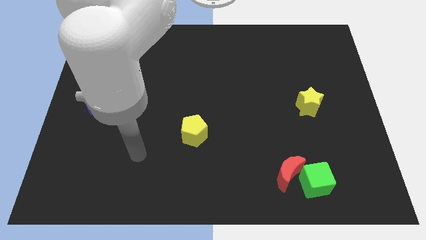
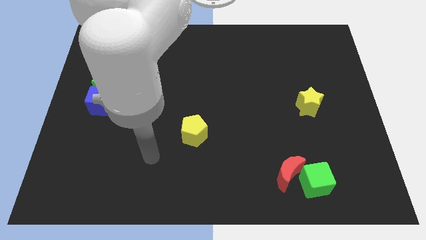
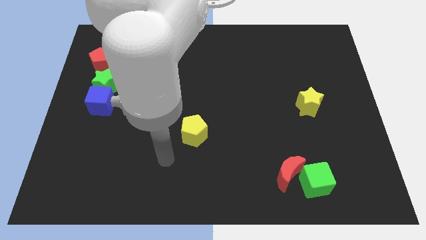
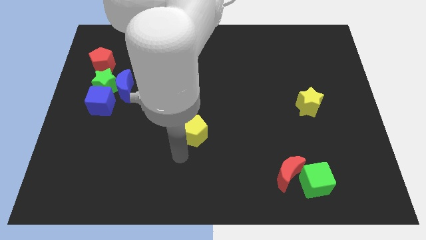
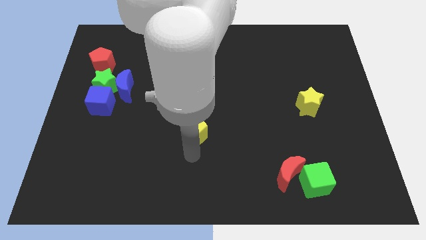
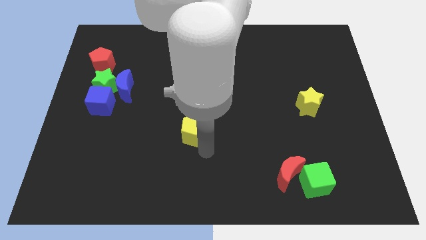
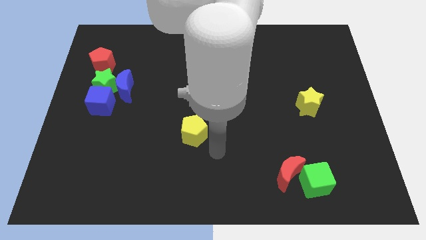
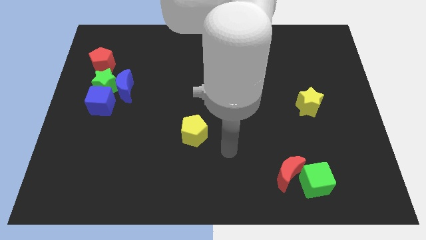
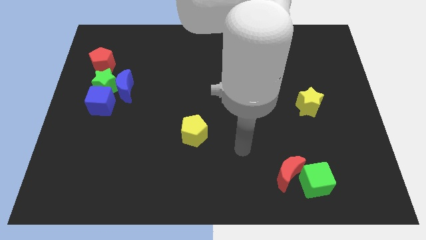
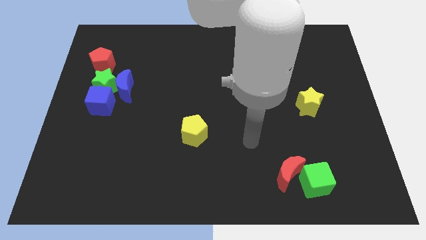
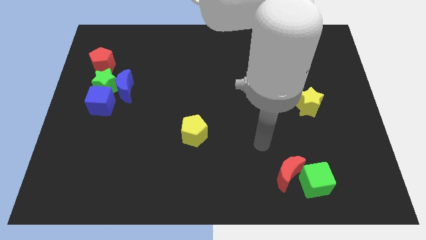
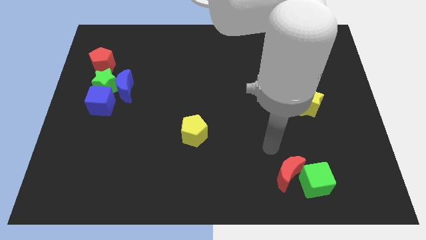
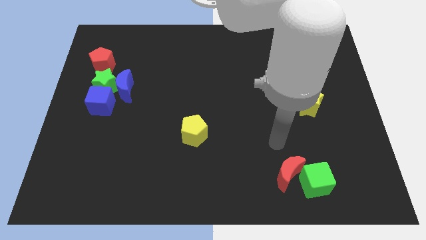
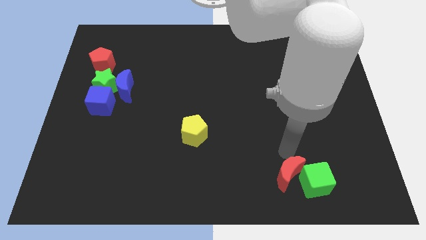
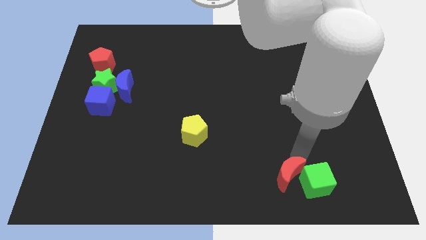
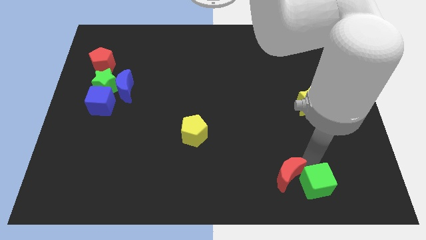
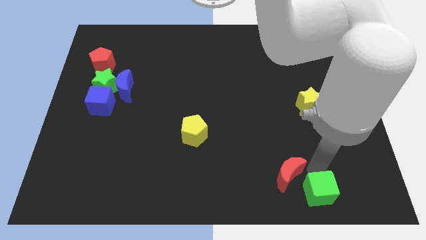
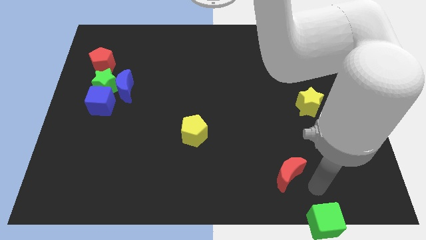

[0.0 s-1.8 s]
move the red moon away from the green cube

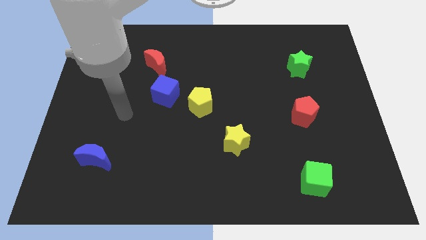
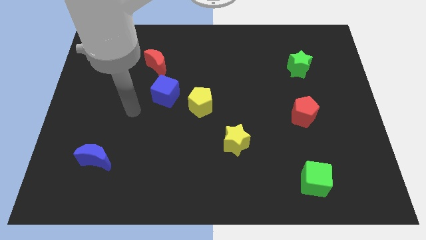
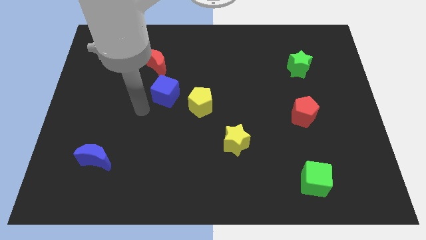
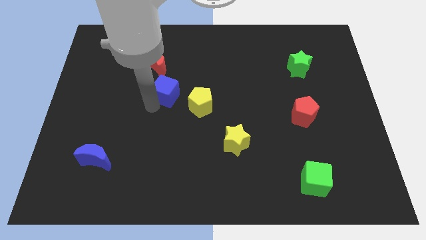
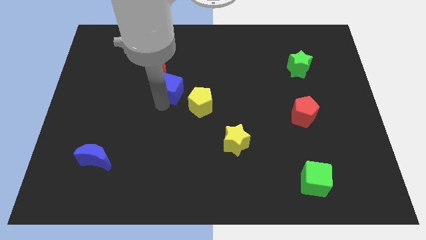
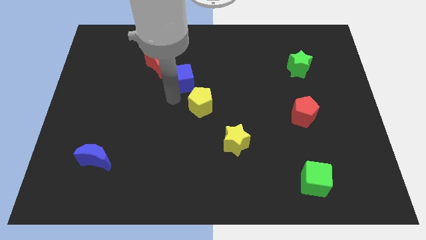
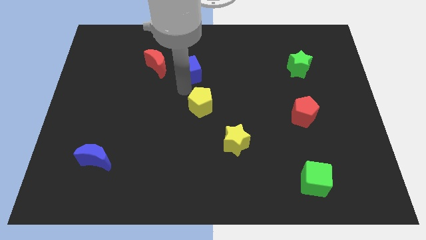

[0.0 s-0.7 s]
pull the yellow pentagon apart from the blue cube

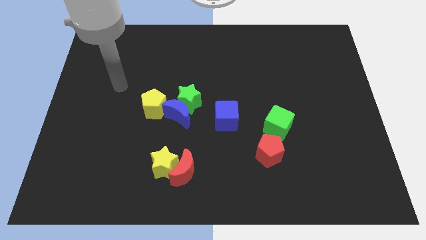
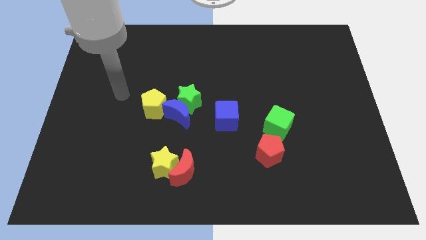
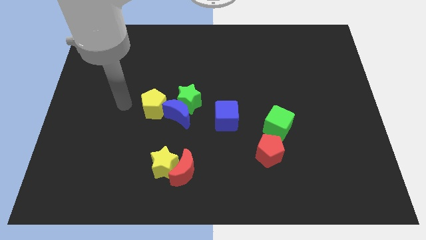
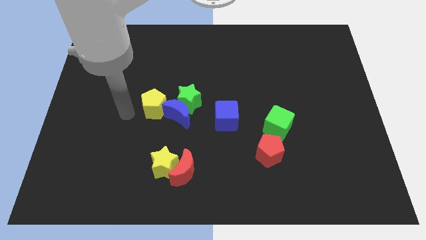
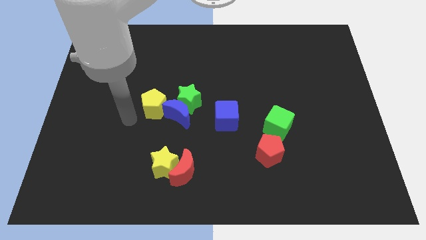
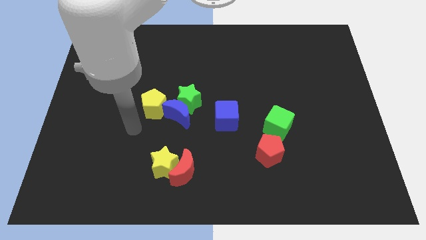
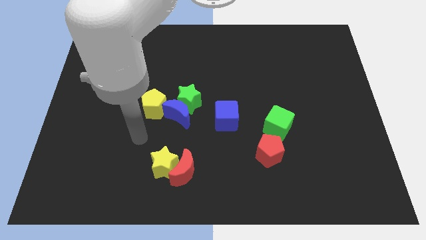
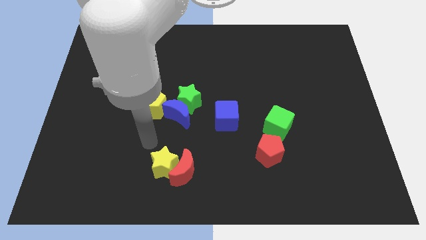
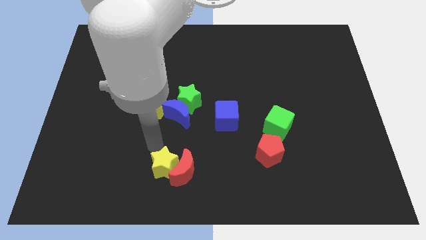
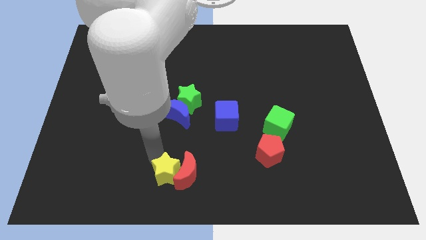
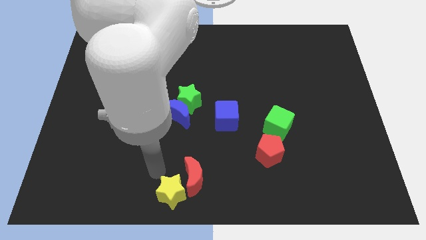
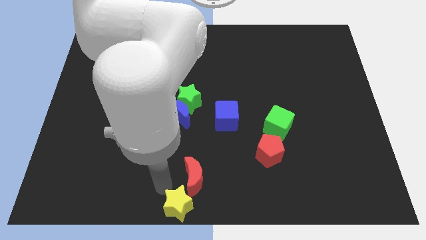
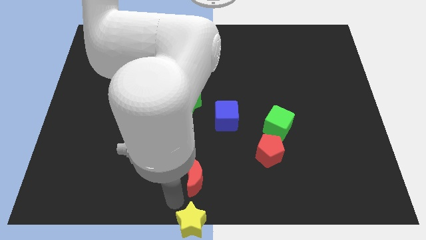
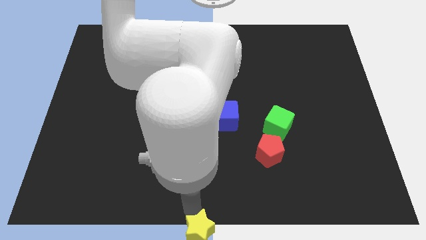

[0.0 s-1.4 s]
separate the red moon from the yellow star

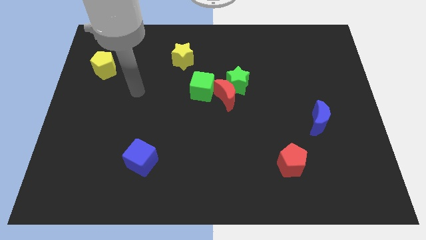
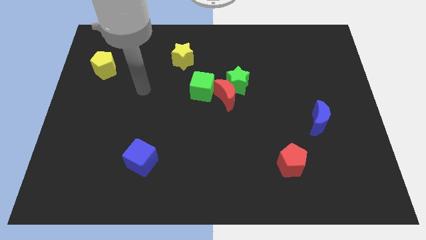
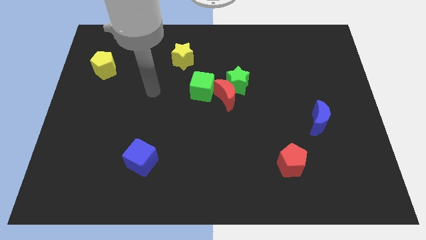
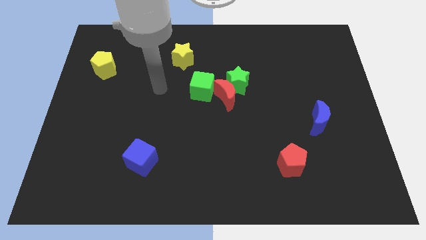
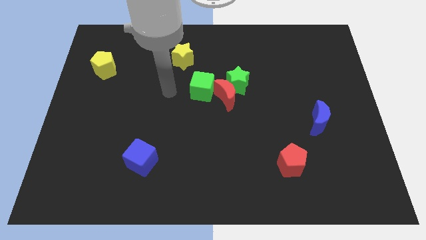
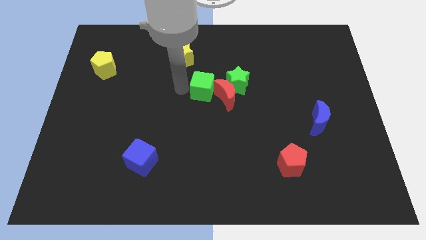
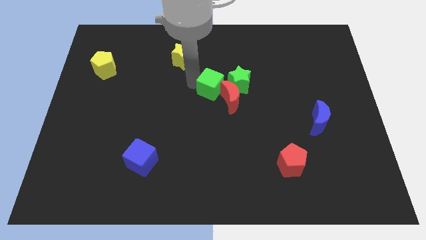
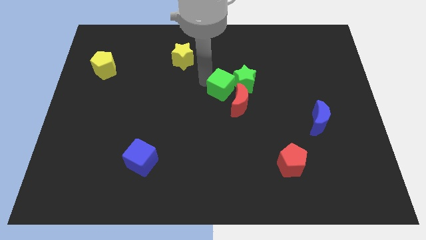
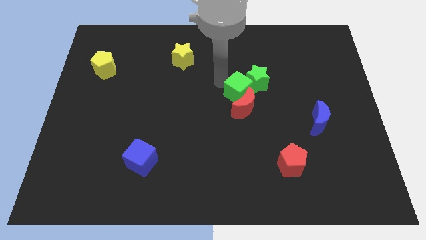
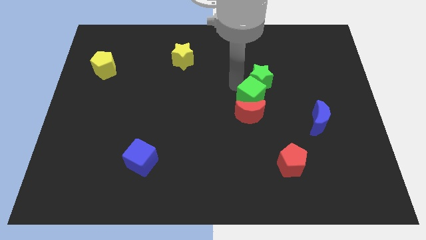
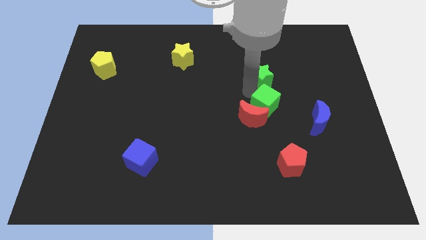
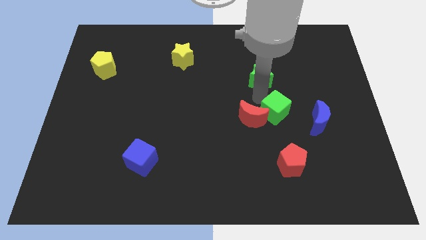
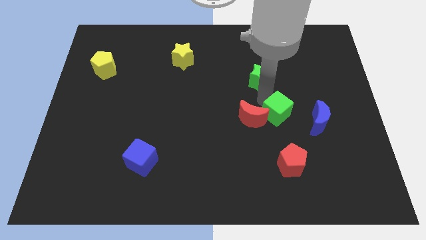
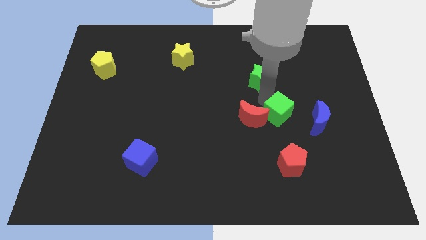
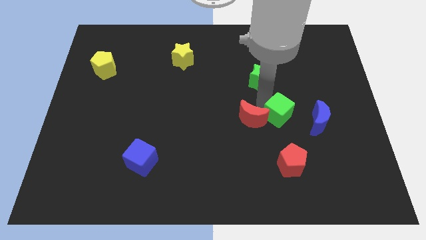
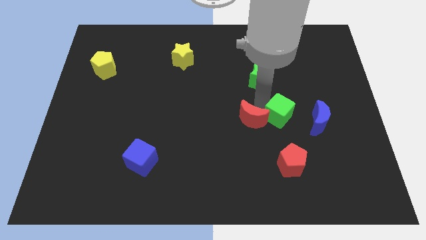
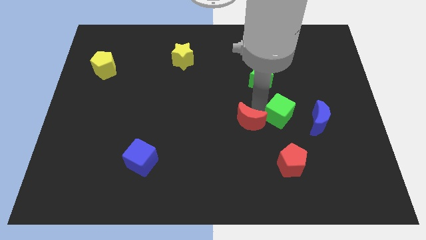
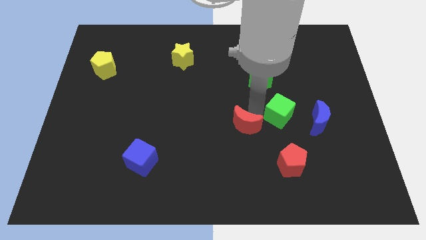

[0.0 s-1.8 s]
move the red moon away from the green star and green cube

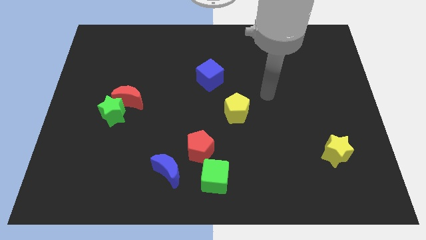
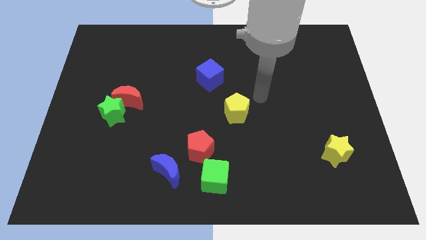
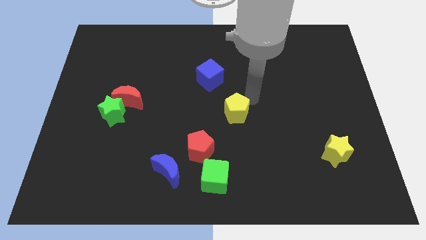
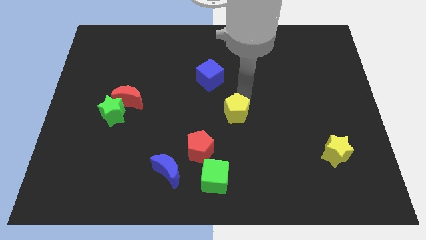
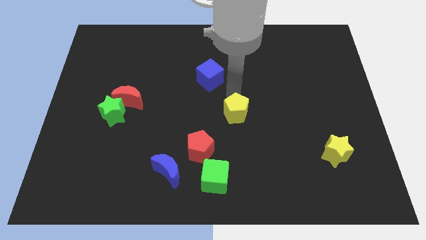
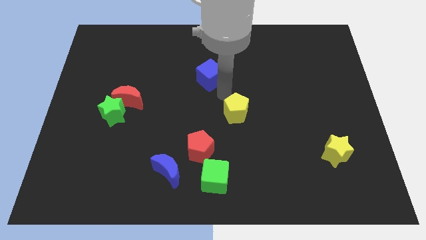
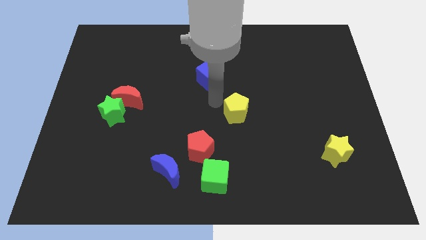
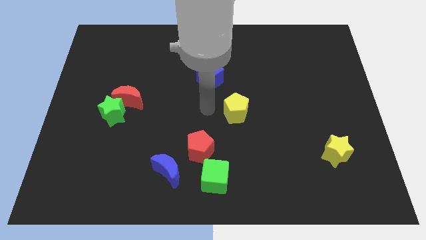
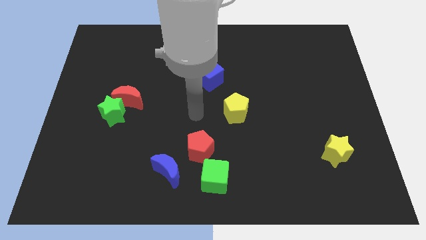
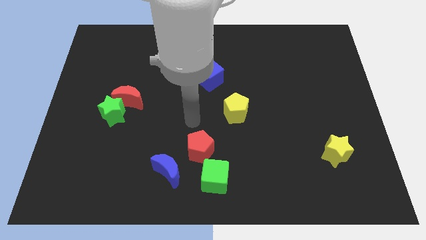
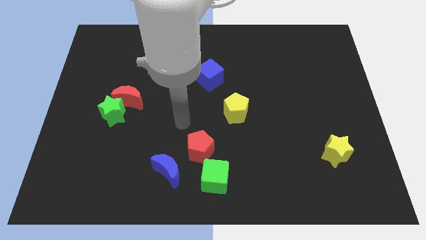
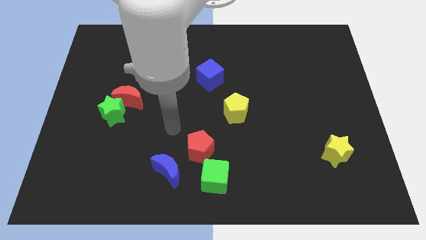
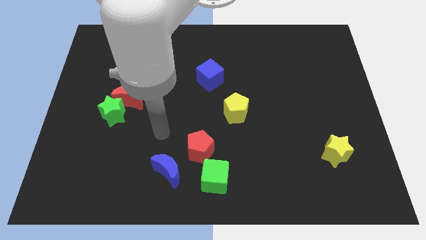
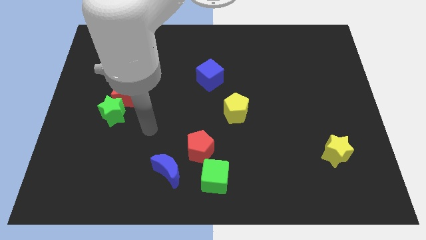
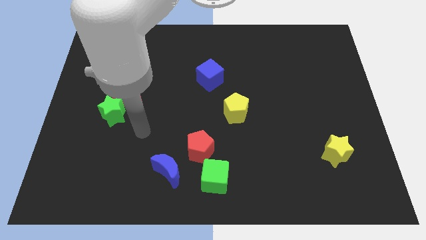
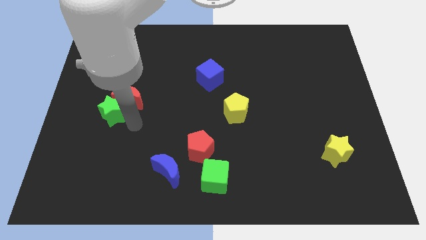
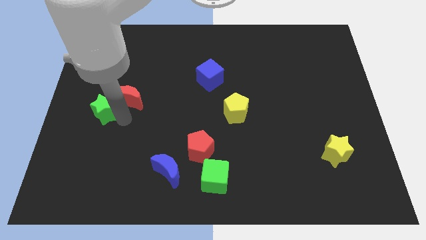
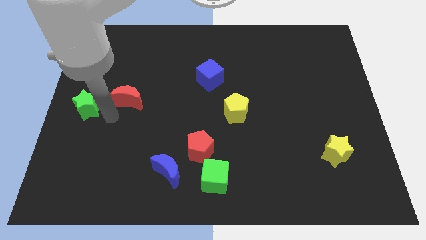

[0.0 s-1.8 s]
move the red moon away from the green star

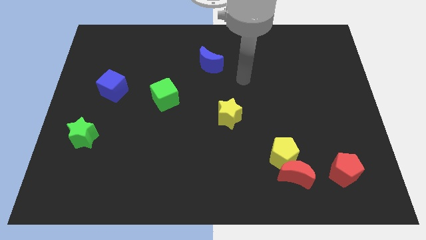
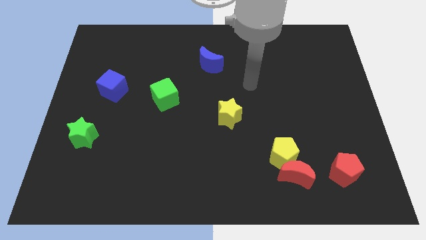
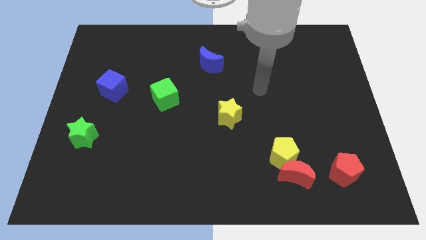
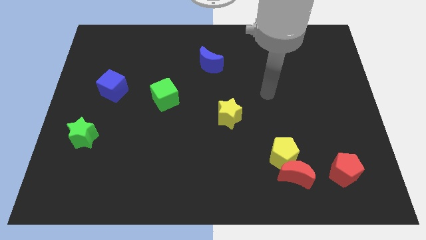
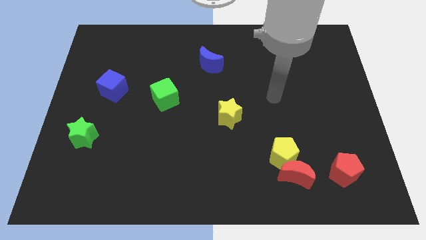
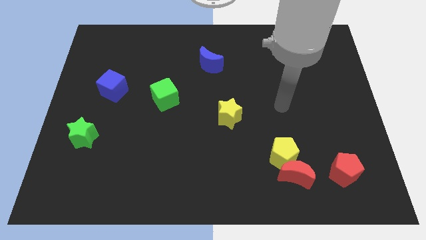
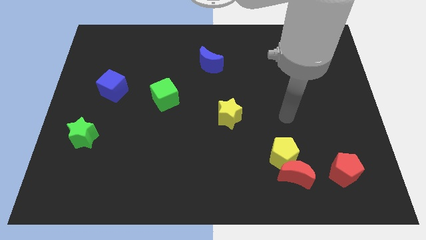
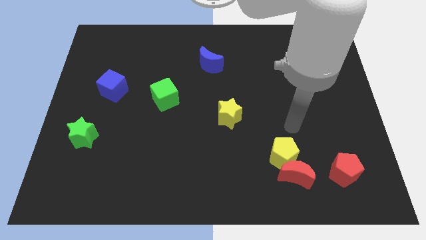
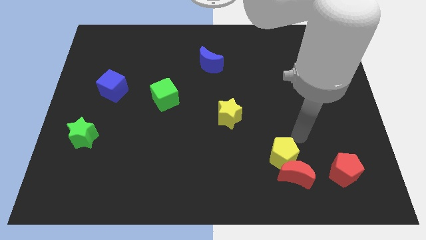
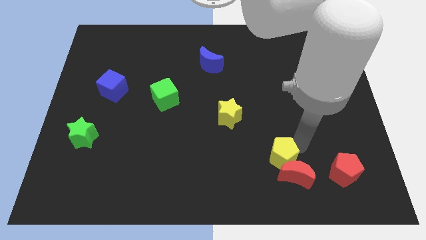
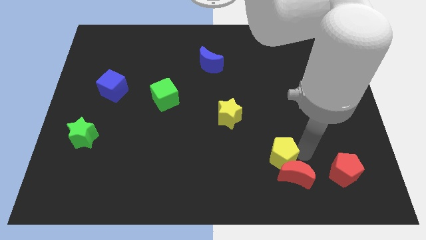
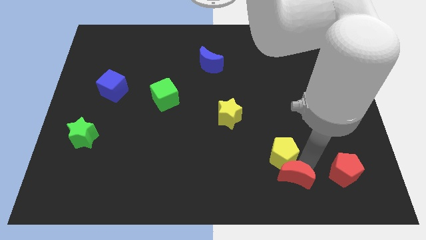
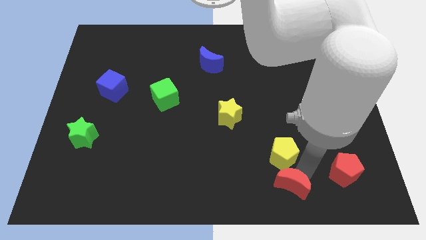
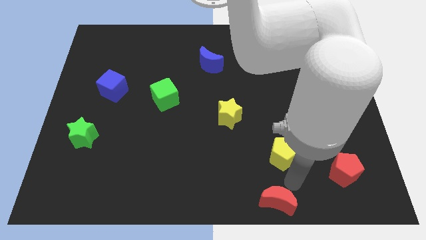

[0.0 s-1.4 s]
pull the yellow pentagon apart from the red moon

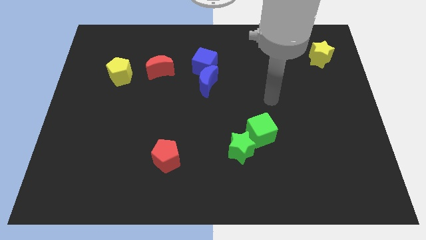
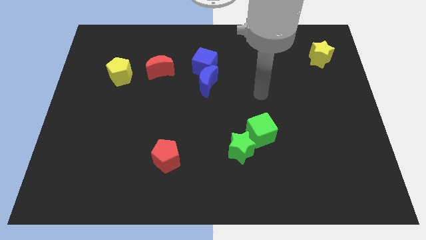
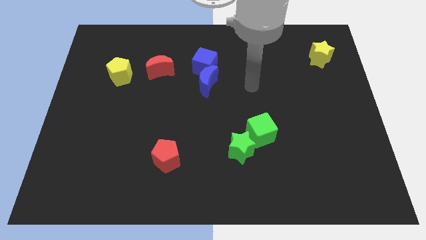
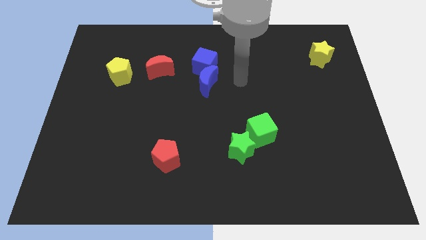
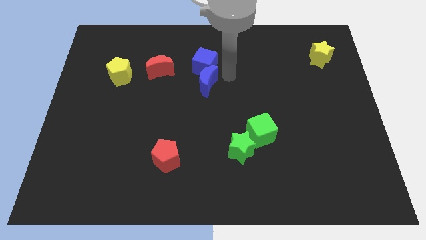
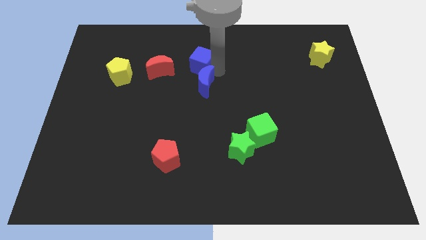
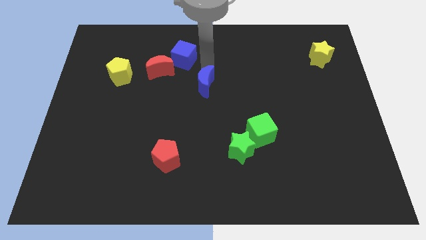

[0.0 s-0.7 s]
separate the blue moon from the blue cube
